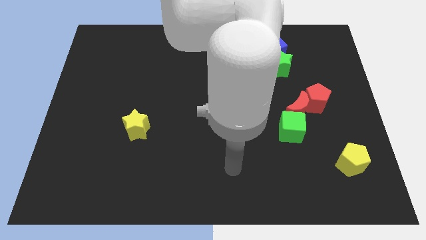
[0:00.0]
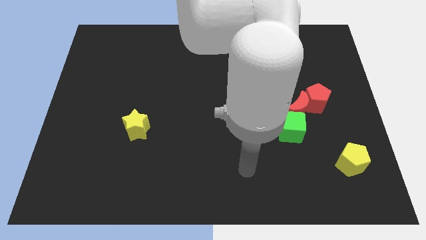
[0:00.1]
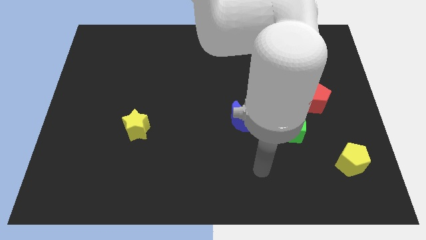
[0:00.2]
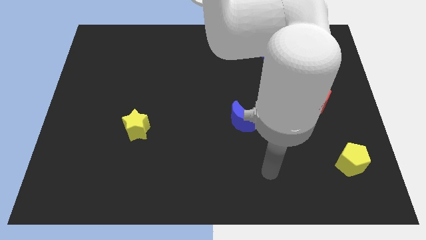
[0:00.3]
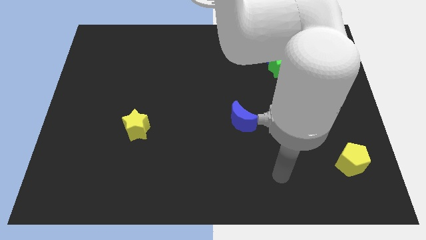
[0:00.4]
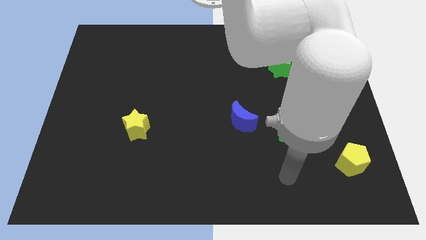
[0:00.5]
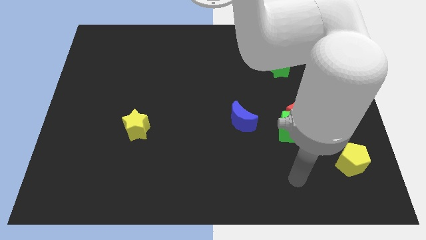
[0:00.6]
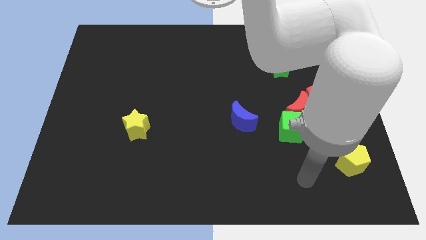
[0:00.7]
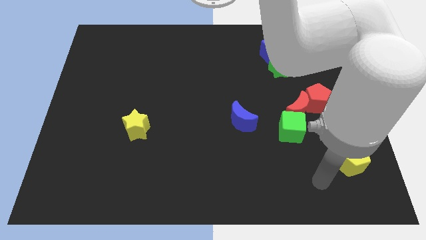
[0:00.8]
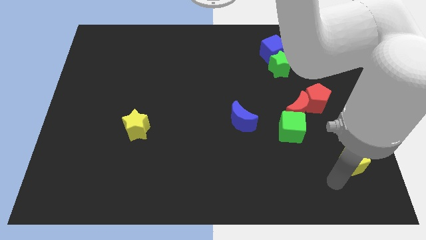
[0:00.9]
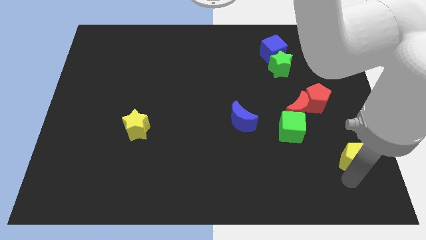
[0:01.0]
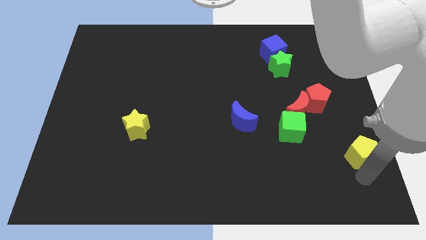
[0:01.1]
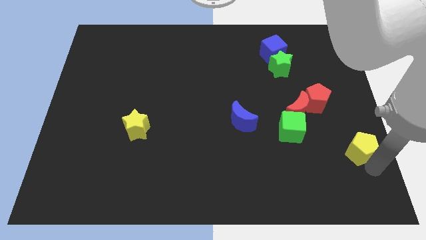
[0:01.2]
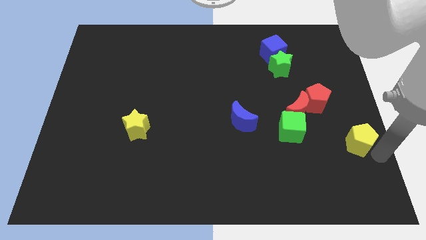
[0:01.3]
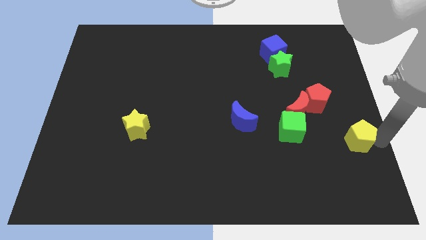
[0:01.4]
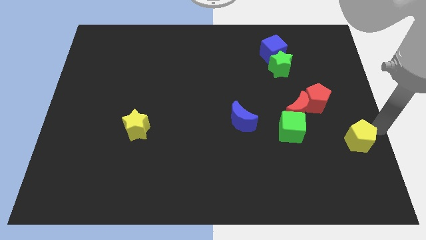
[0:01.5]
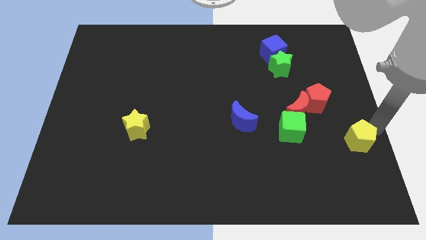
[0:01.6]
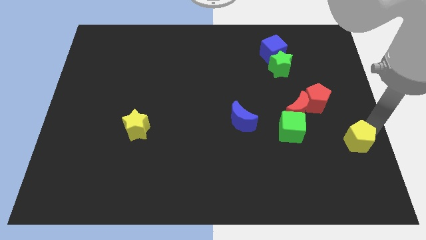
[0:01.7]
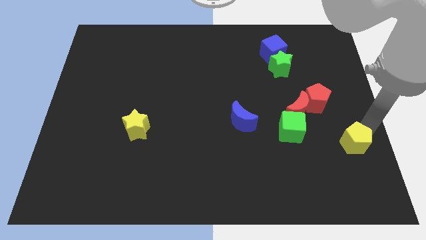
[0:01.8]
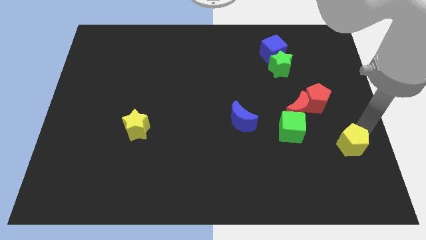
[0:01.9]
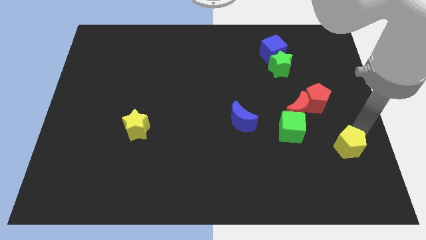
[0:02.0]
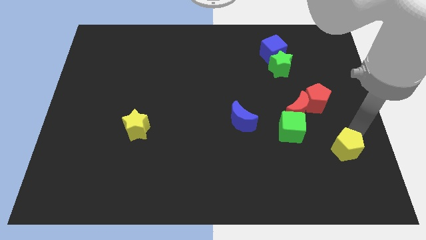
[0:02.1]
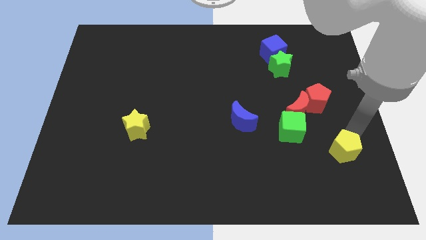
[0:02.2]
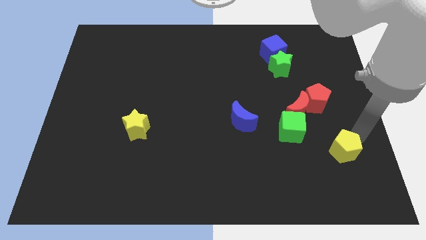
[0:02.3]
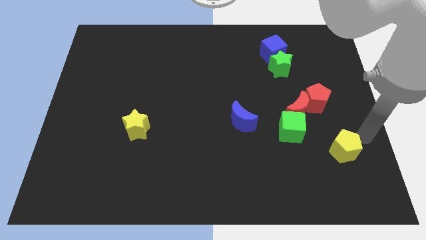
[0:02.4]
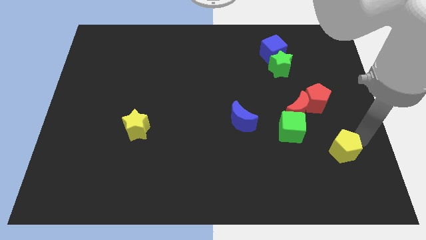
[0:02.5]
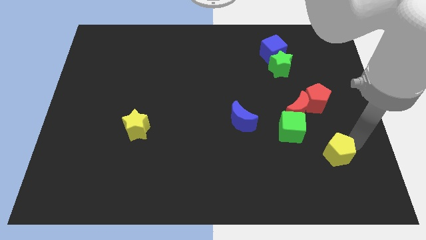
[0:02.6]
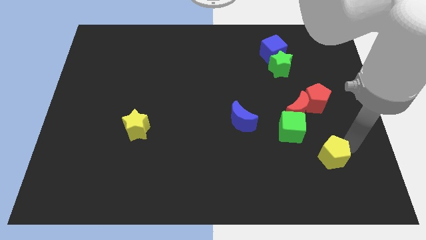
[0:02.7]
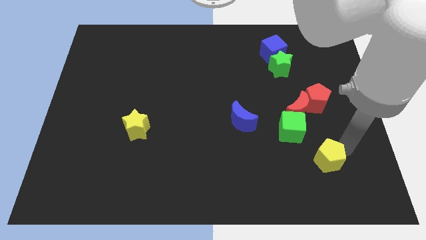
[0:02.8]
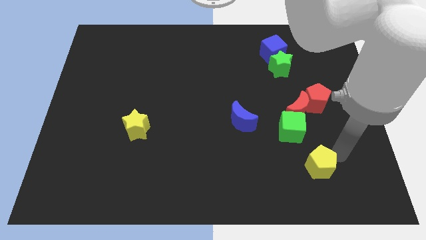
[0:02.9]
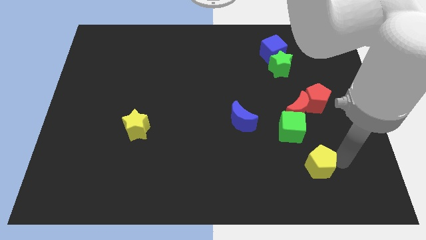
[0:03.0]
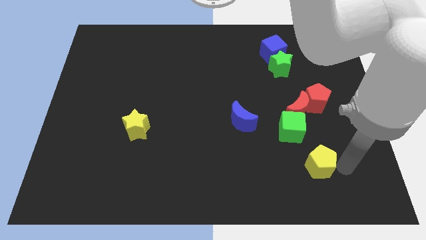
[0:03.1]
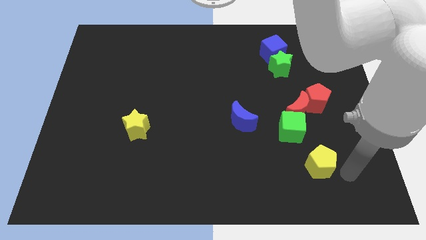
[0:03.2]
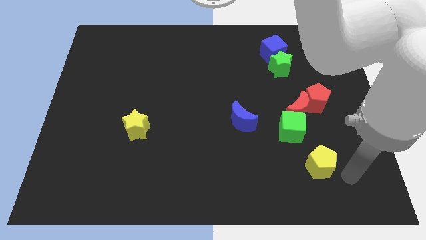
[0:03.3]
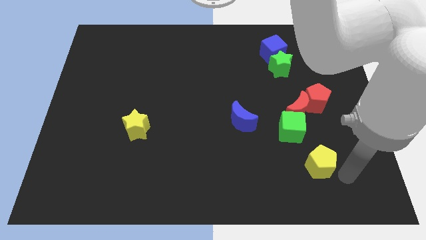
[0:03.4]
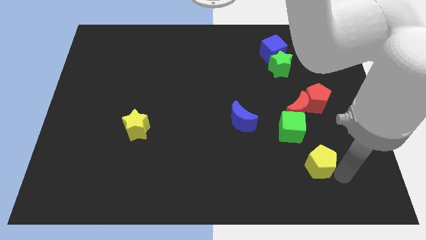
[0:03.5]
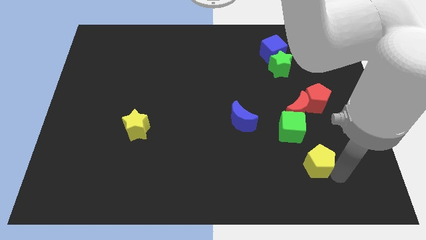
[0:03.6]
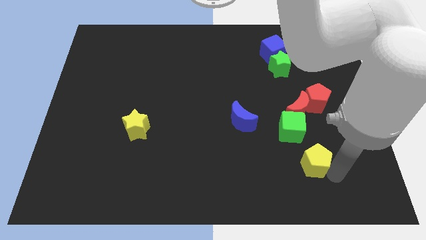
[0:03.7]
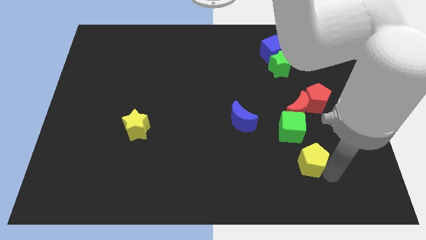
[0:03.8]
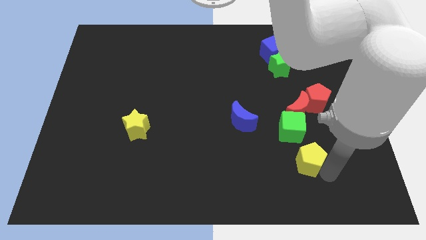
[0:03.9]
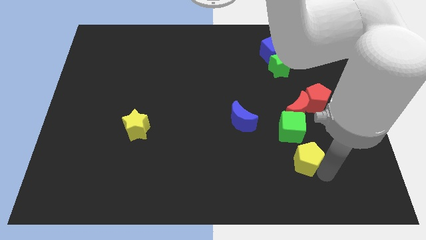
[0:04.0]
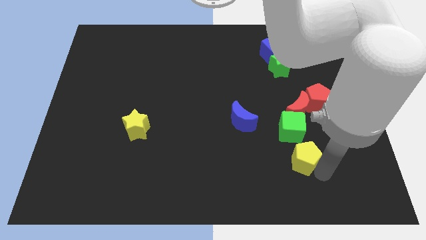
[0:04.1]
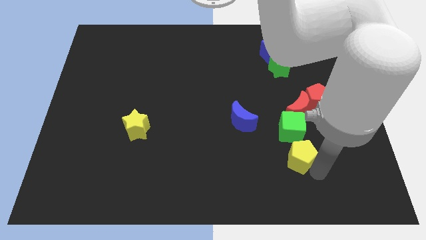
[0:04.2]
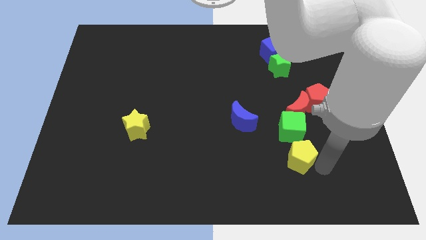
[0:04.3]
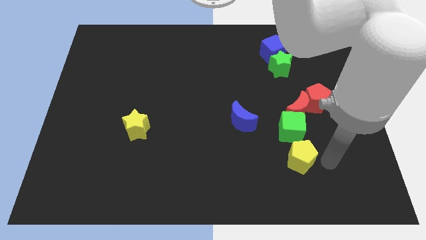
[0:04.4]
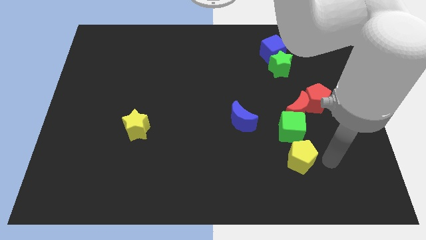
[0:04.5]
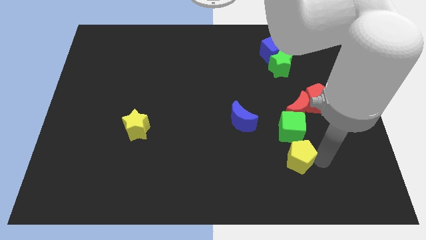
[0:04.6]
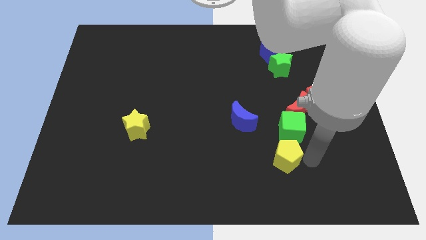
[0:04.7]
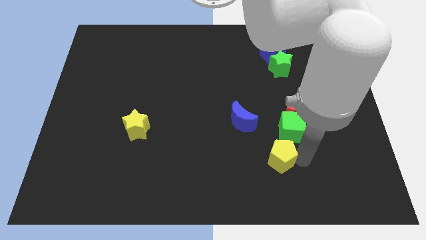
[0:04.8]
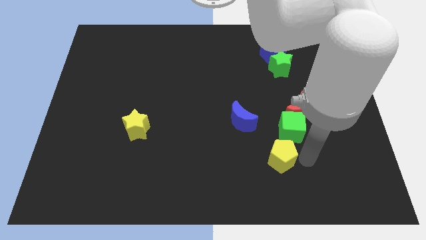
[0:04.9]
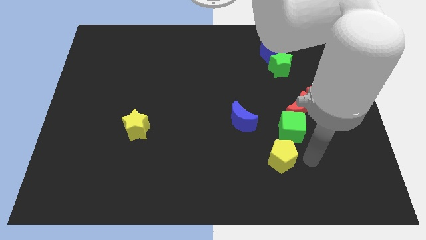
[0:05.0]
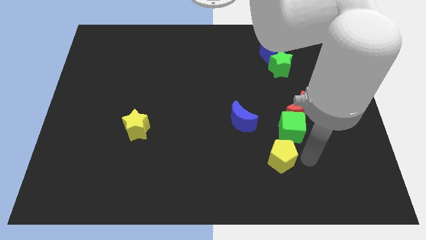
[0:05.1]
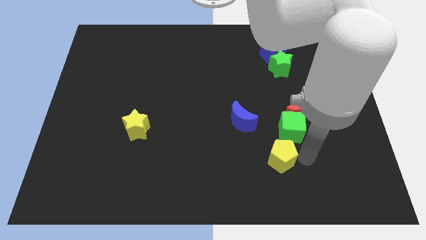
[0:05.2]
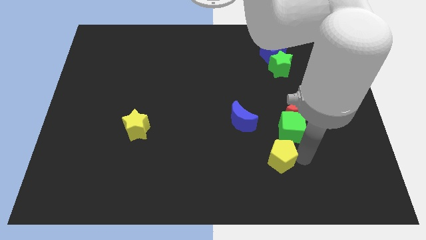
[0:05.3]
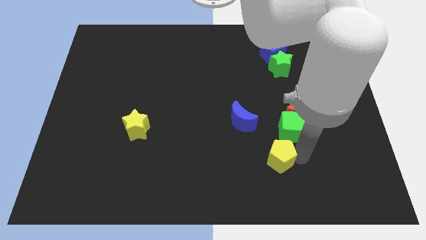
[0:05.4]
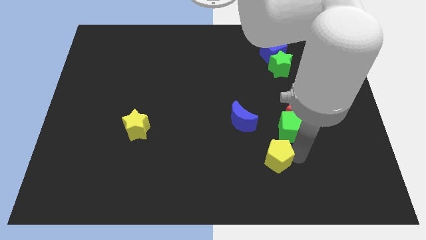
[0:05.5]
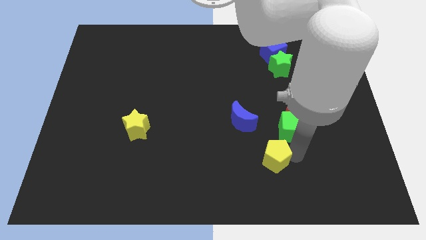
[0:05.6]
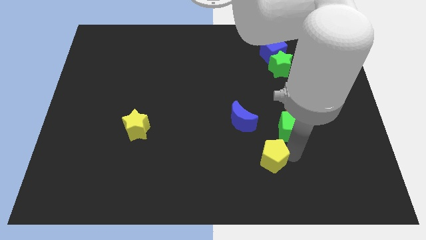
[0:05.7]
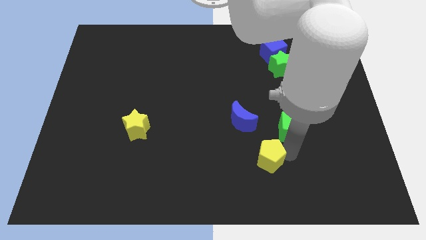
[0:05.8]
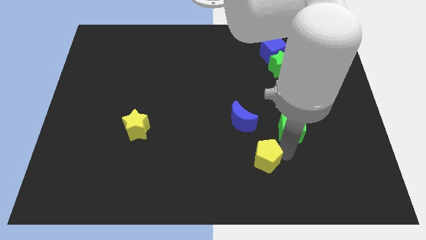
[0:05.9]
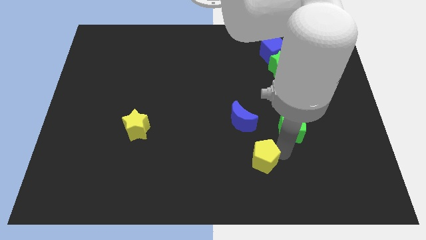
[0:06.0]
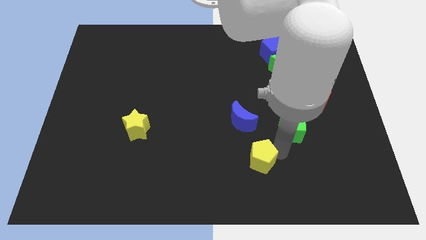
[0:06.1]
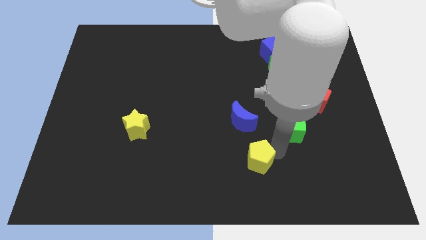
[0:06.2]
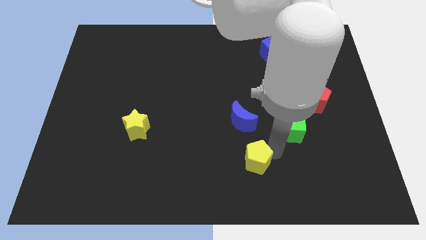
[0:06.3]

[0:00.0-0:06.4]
slide the yellow pentagon to the left

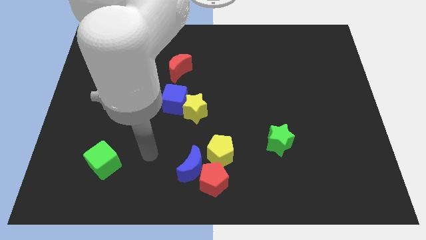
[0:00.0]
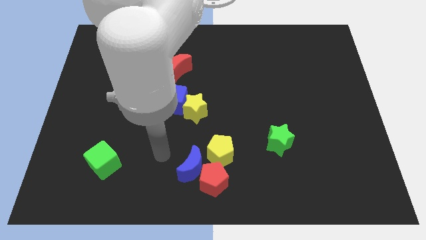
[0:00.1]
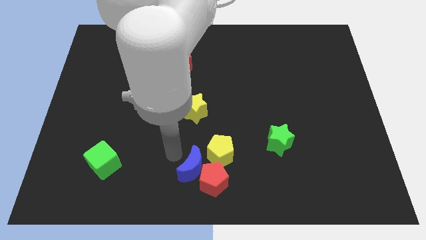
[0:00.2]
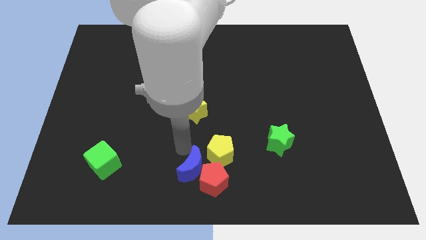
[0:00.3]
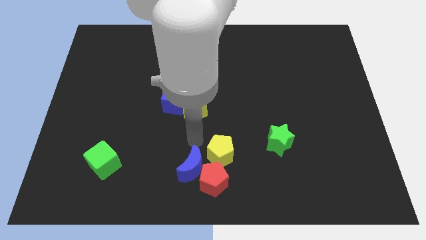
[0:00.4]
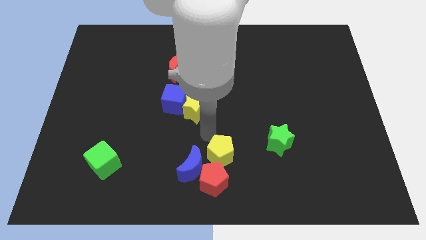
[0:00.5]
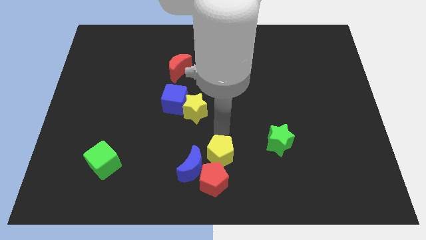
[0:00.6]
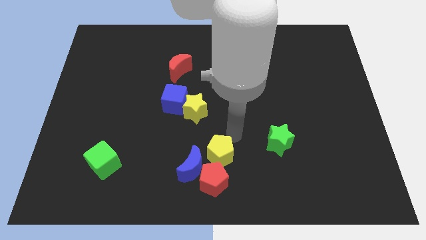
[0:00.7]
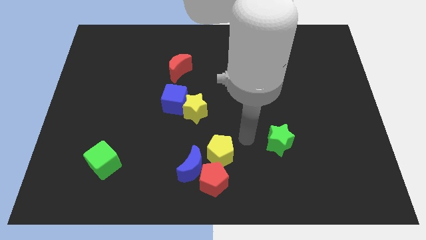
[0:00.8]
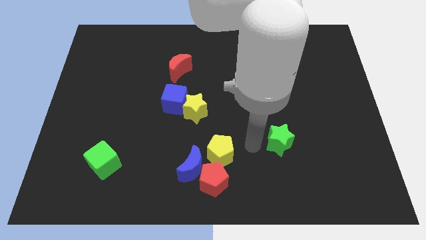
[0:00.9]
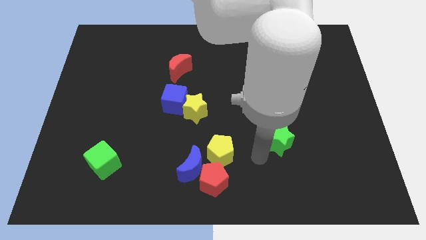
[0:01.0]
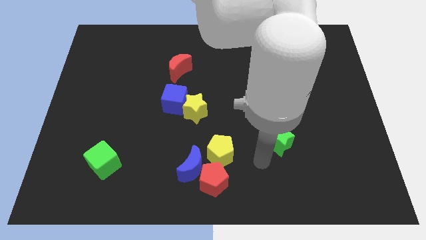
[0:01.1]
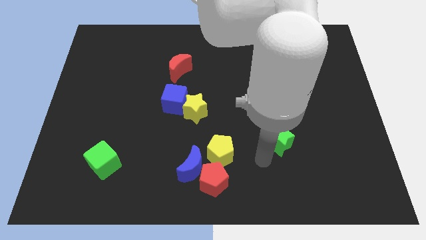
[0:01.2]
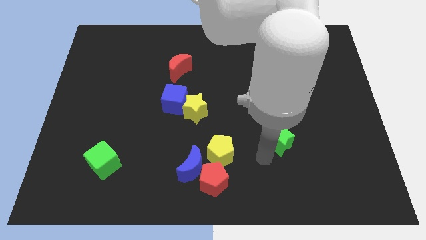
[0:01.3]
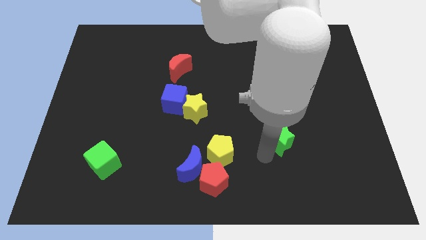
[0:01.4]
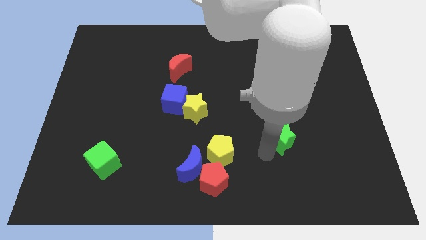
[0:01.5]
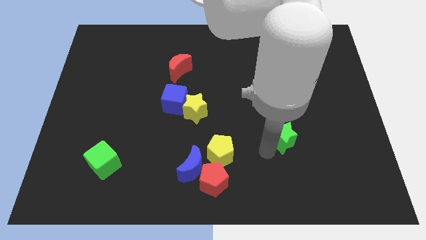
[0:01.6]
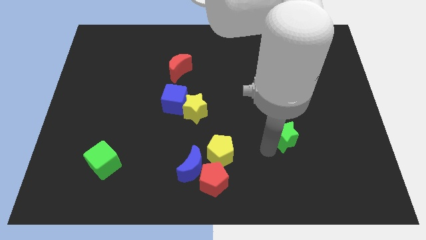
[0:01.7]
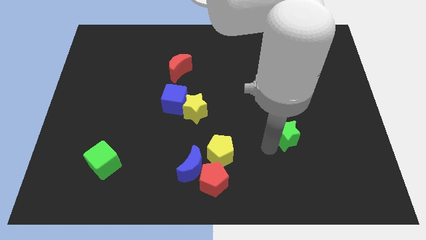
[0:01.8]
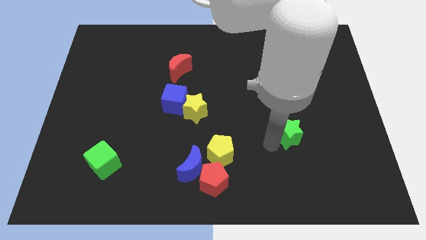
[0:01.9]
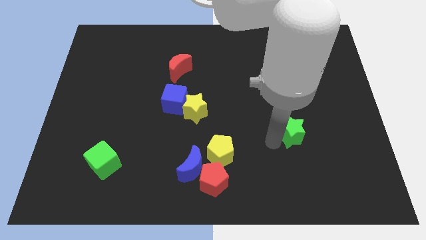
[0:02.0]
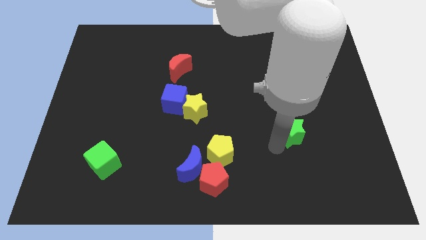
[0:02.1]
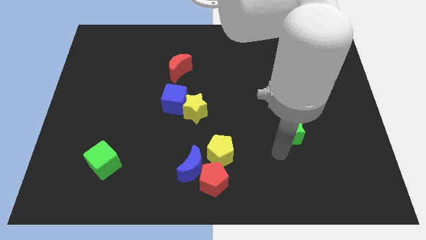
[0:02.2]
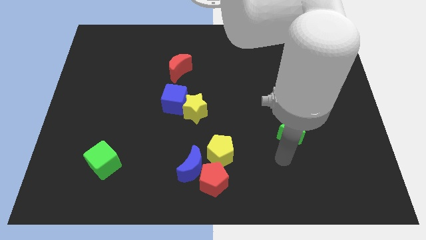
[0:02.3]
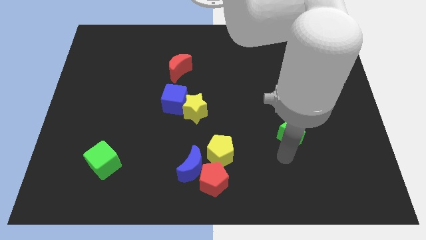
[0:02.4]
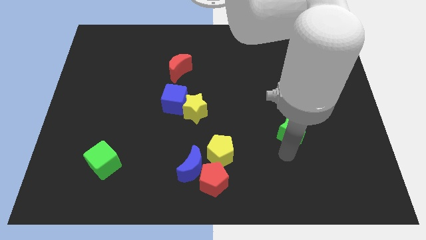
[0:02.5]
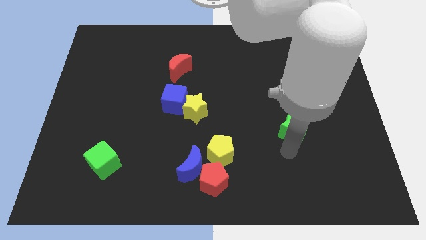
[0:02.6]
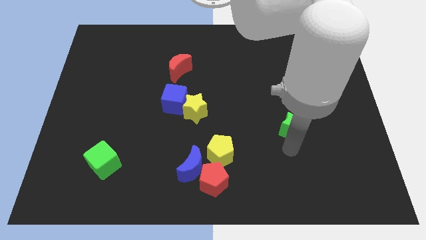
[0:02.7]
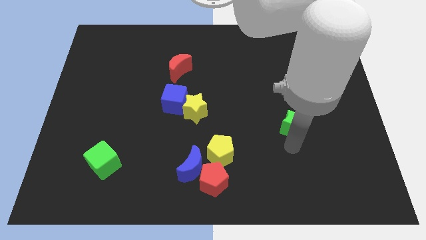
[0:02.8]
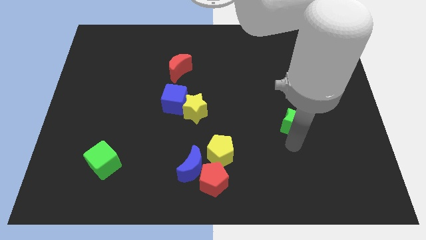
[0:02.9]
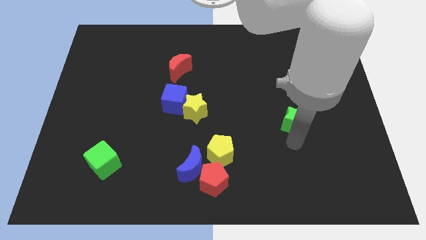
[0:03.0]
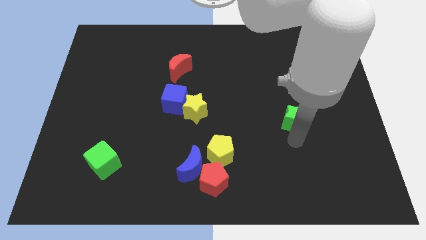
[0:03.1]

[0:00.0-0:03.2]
push the green star somewhat up and right diagonally
